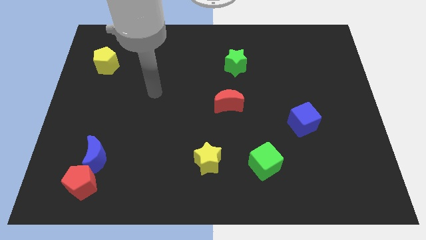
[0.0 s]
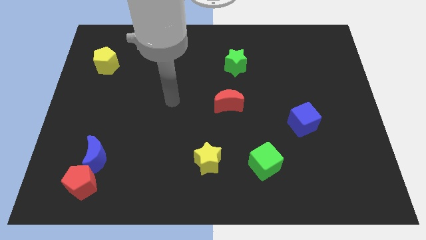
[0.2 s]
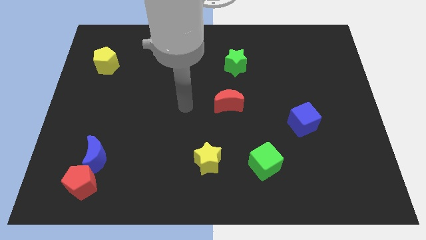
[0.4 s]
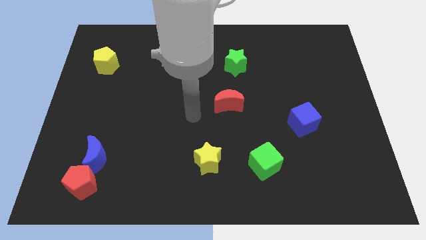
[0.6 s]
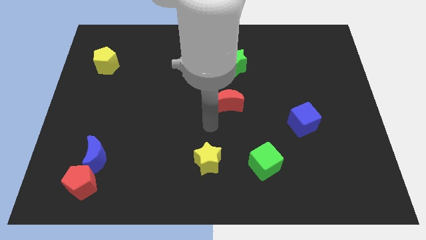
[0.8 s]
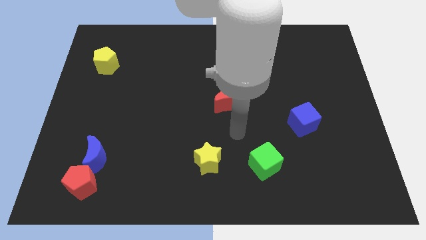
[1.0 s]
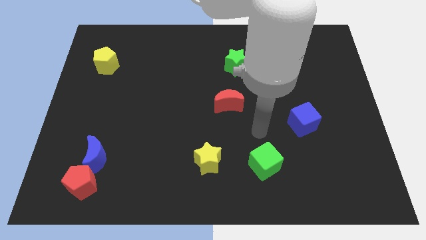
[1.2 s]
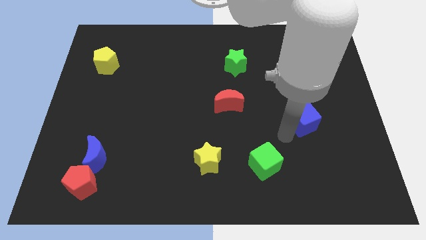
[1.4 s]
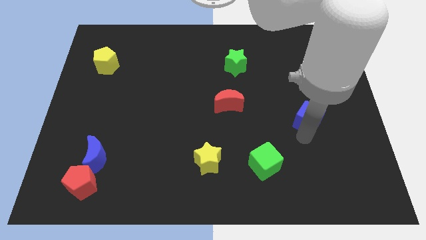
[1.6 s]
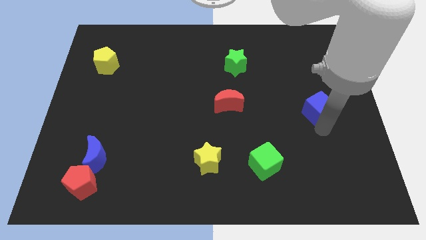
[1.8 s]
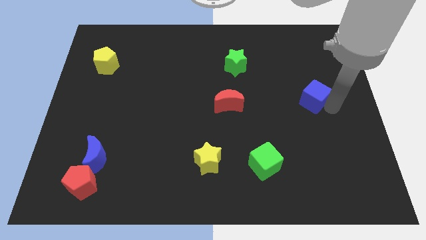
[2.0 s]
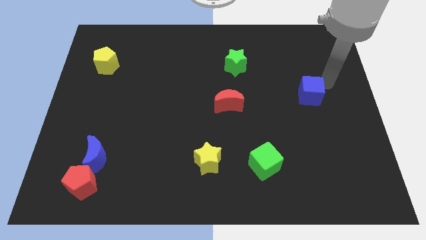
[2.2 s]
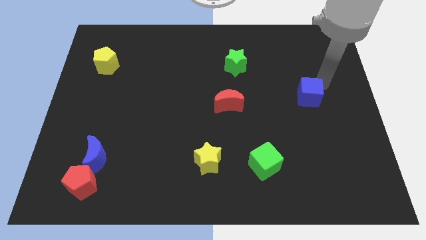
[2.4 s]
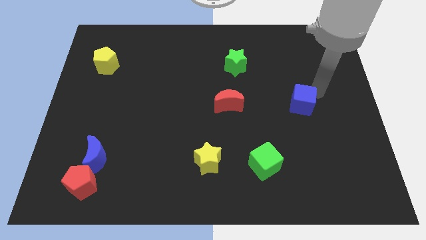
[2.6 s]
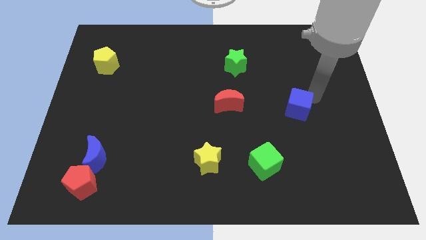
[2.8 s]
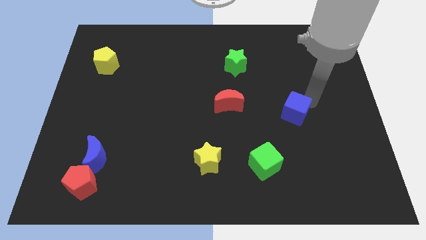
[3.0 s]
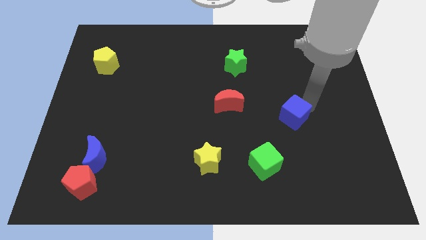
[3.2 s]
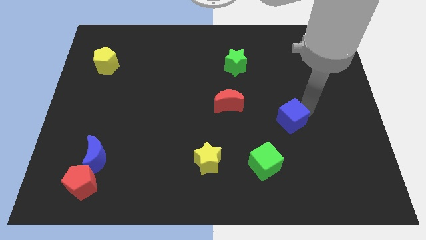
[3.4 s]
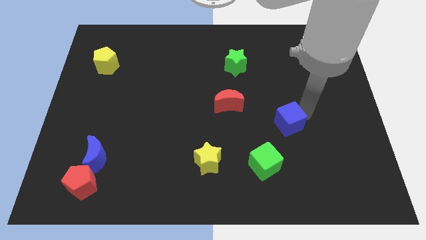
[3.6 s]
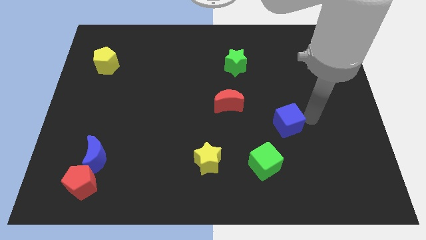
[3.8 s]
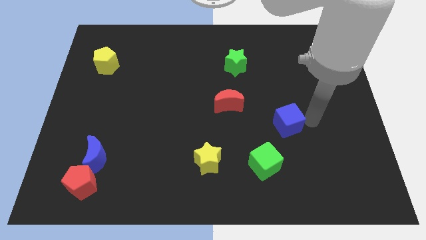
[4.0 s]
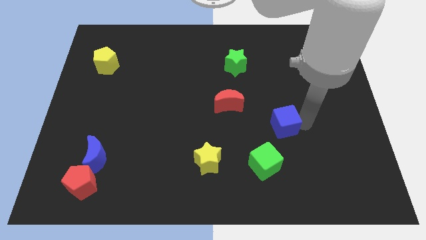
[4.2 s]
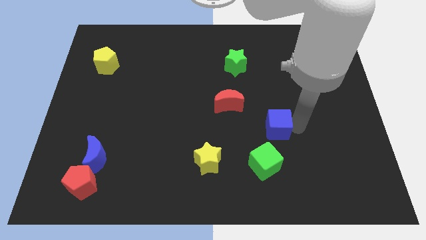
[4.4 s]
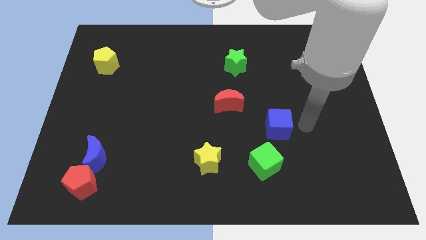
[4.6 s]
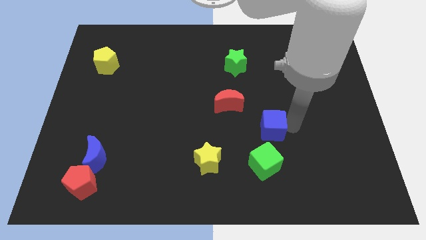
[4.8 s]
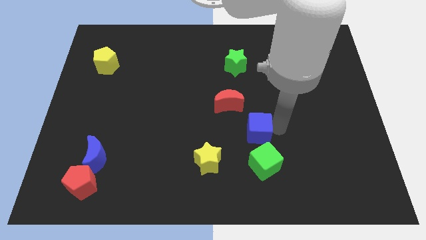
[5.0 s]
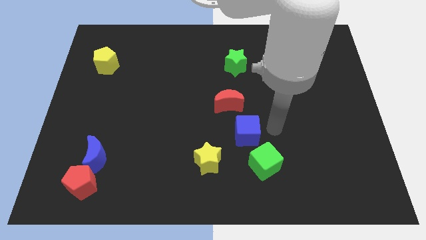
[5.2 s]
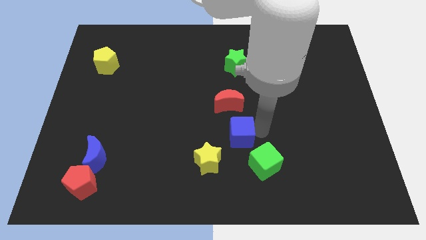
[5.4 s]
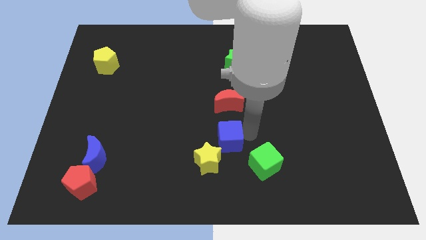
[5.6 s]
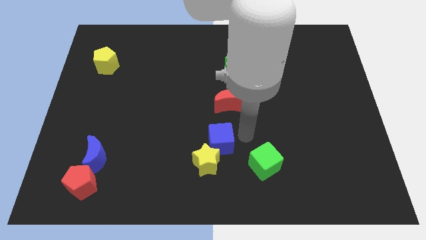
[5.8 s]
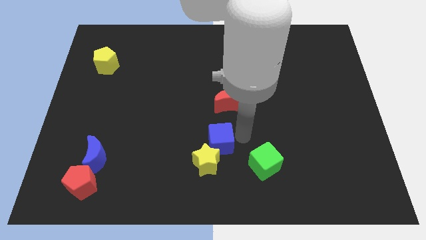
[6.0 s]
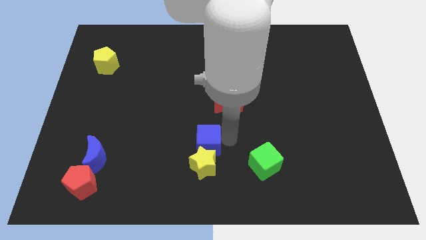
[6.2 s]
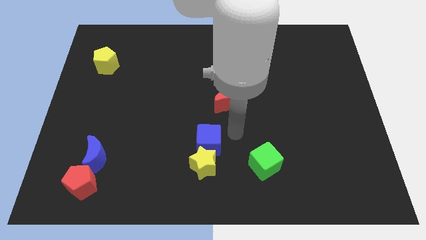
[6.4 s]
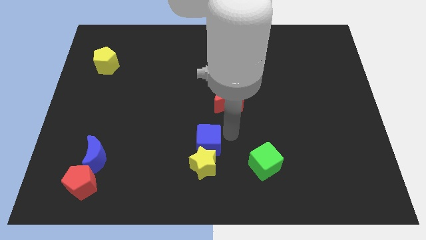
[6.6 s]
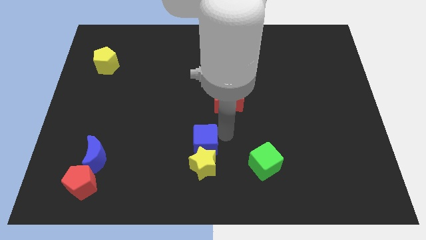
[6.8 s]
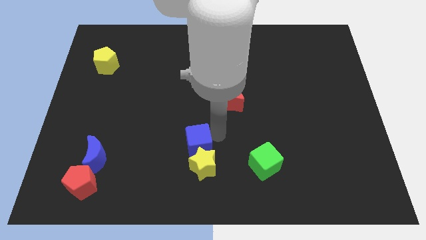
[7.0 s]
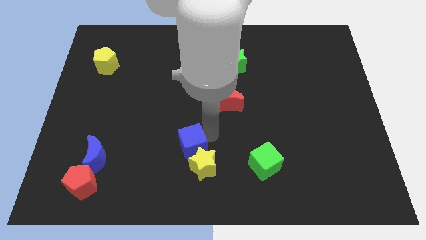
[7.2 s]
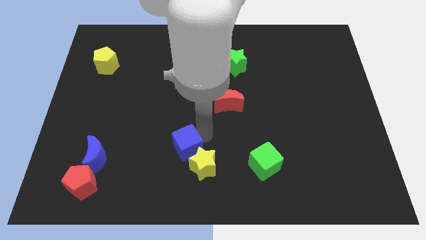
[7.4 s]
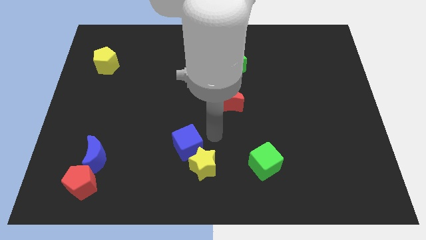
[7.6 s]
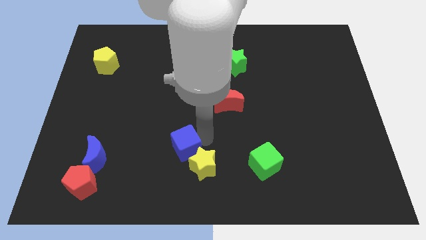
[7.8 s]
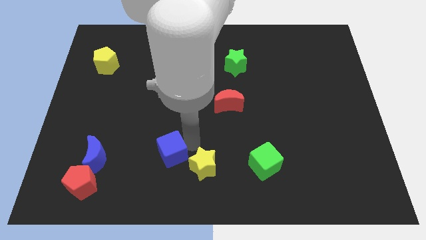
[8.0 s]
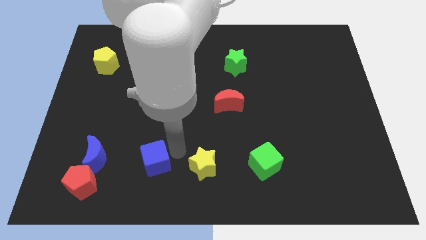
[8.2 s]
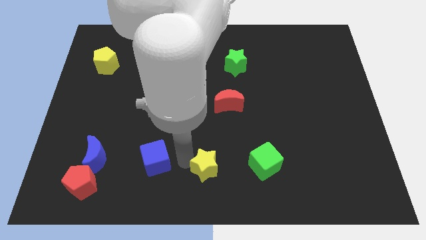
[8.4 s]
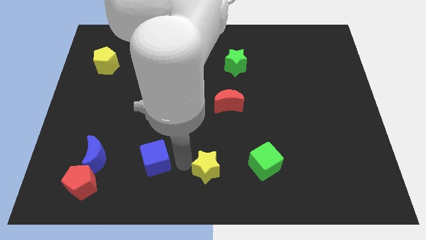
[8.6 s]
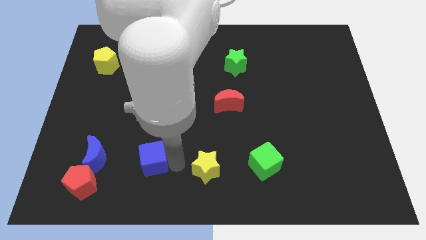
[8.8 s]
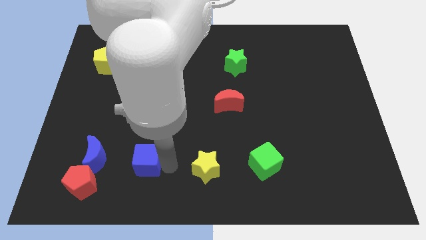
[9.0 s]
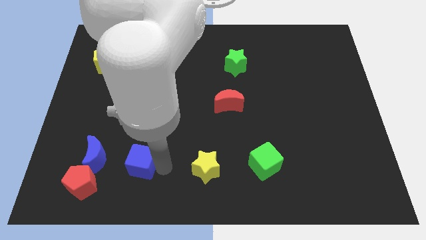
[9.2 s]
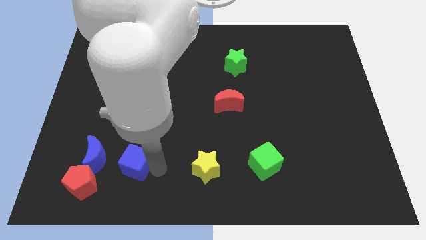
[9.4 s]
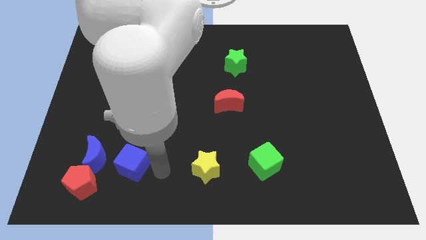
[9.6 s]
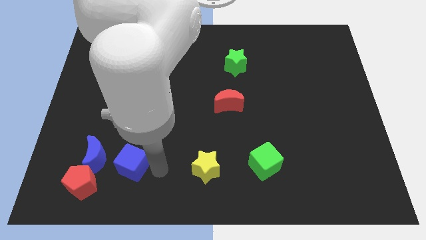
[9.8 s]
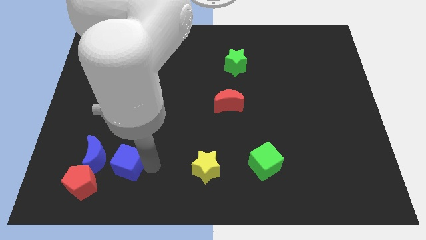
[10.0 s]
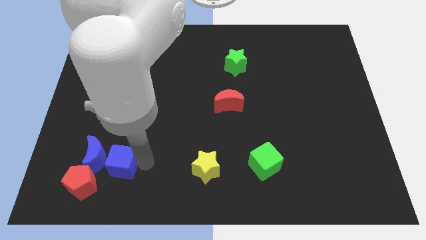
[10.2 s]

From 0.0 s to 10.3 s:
push the blue cube to the blue moon

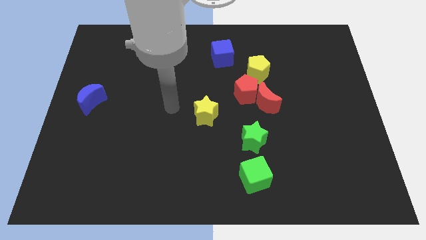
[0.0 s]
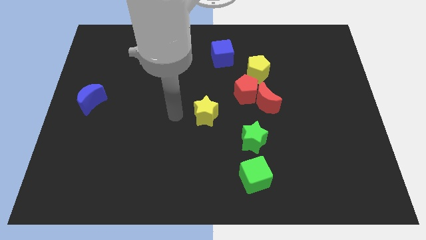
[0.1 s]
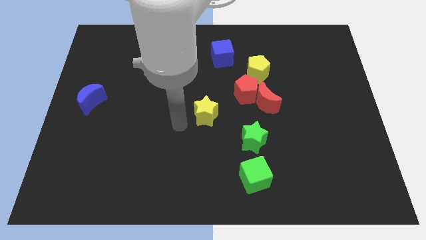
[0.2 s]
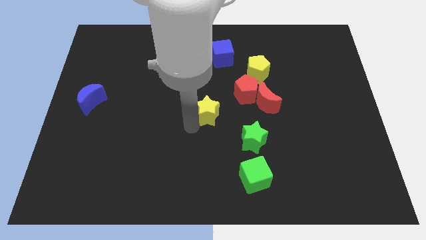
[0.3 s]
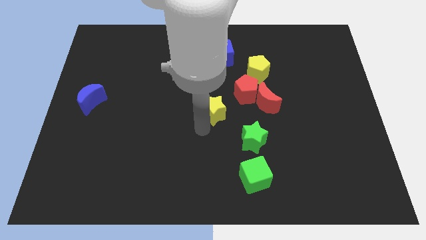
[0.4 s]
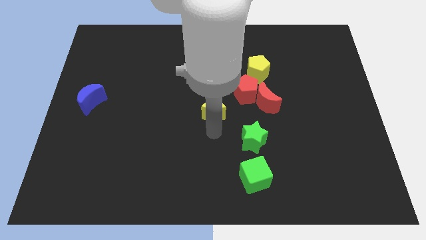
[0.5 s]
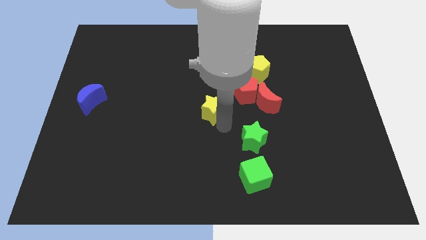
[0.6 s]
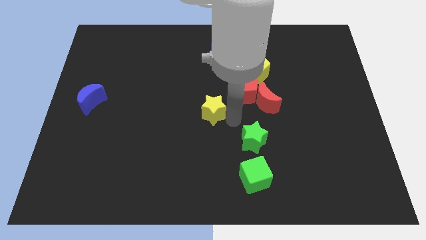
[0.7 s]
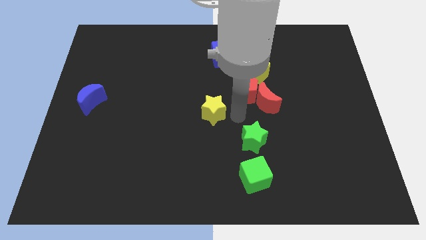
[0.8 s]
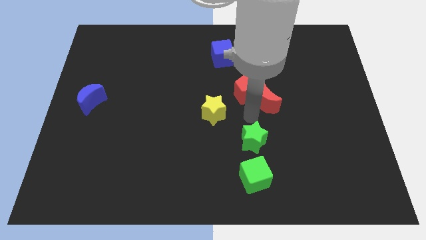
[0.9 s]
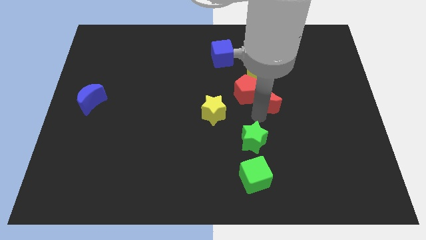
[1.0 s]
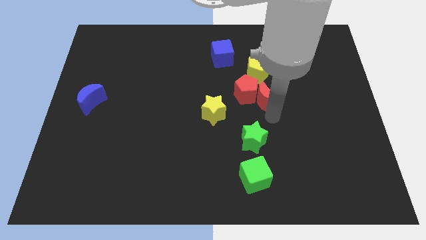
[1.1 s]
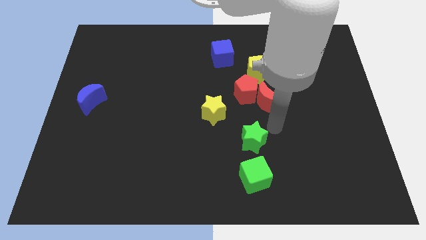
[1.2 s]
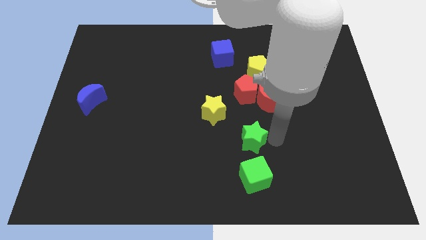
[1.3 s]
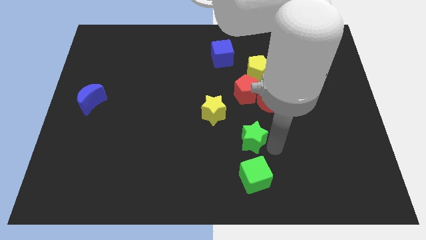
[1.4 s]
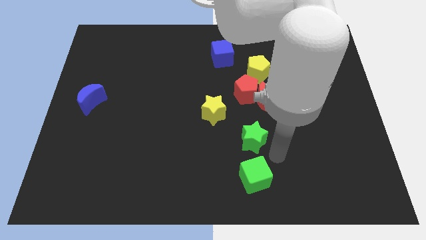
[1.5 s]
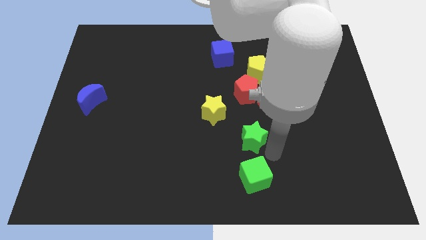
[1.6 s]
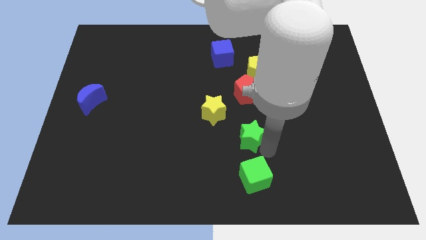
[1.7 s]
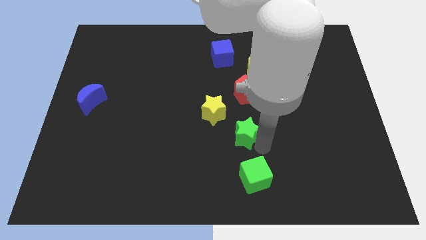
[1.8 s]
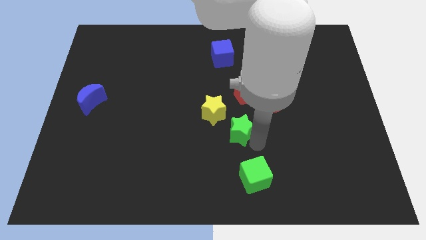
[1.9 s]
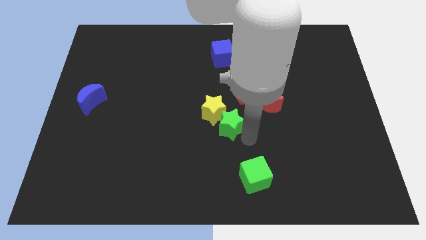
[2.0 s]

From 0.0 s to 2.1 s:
push the green star towards the yellow star

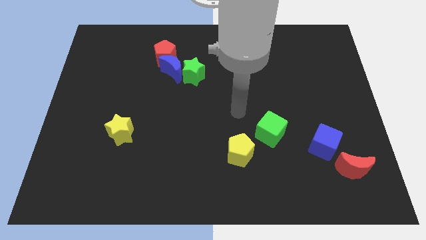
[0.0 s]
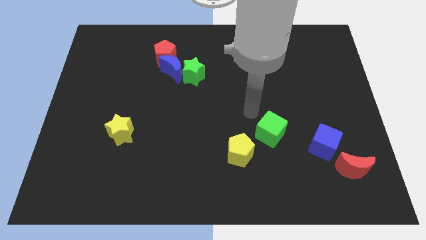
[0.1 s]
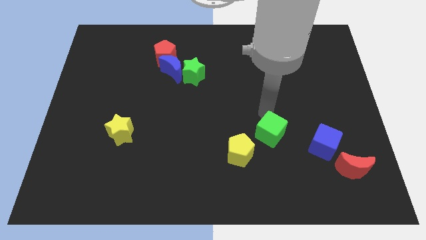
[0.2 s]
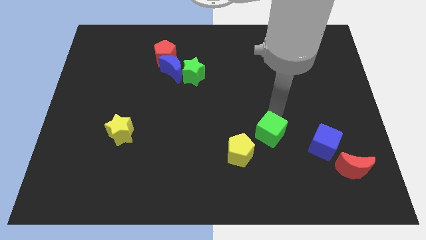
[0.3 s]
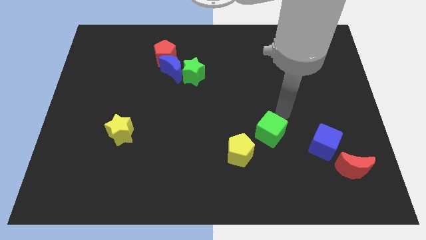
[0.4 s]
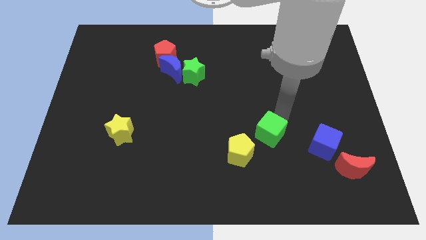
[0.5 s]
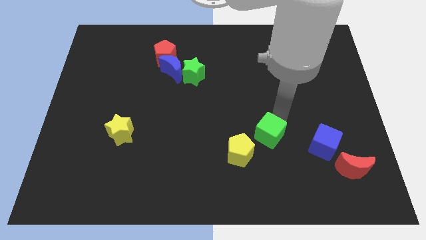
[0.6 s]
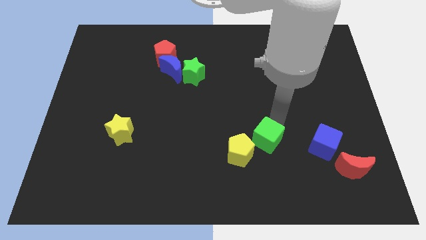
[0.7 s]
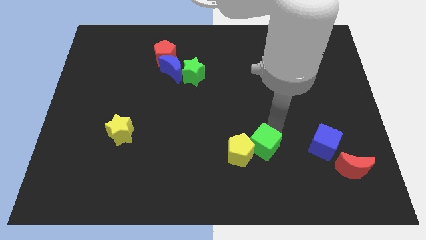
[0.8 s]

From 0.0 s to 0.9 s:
slide the green cube towards the yellow pentagon
